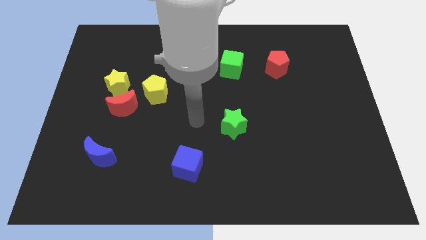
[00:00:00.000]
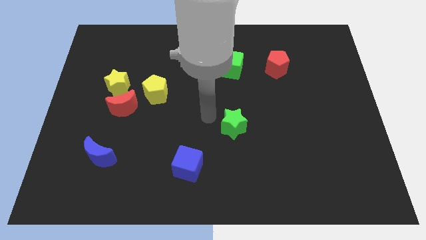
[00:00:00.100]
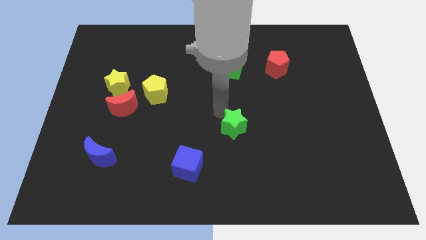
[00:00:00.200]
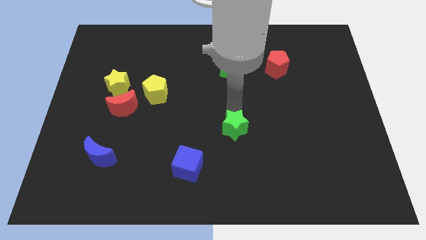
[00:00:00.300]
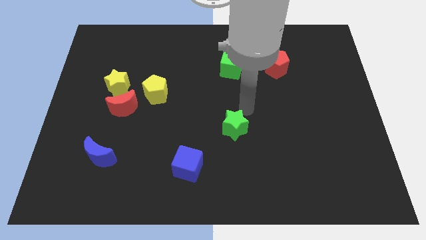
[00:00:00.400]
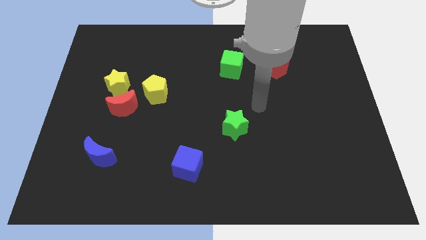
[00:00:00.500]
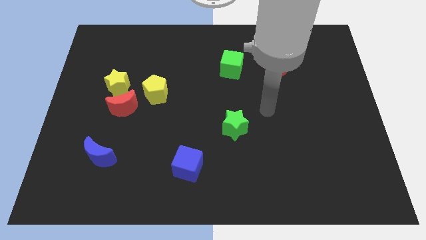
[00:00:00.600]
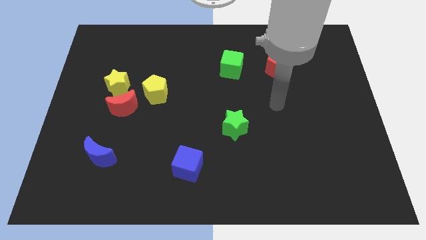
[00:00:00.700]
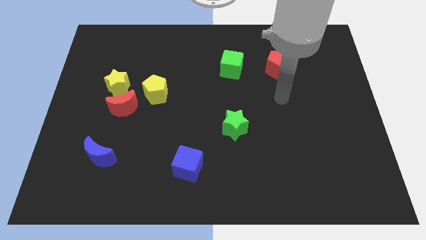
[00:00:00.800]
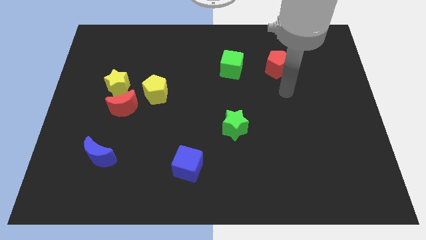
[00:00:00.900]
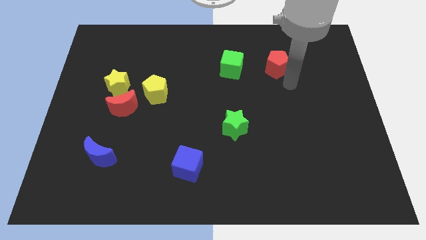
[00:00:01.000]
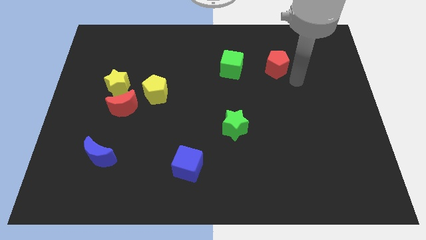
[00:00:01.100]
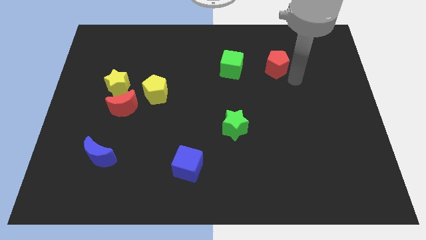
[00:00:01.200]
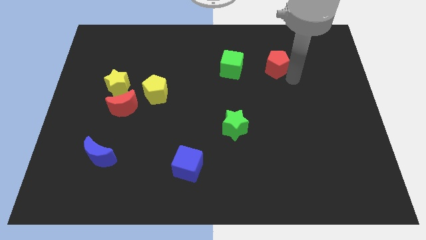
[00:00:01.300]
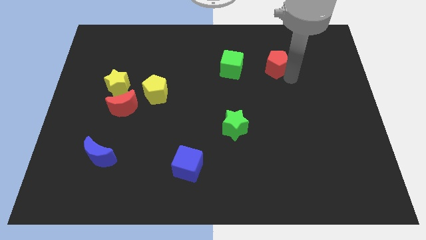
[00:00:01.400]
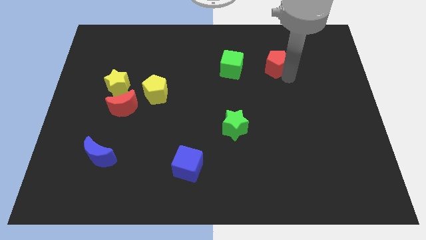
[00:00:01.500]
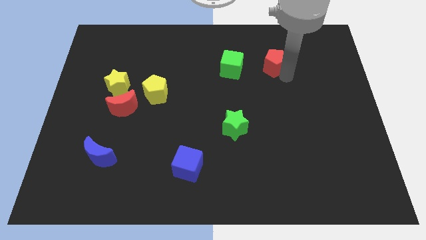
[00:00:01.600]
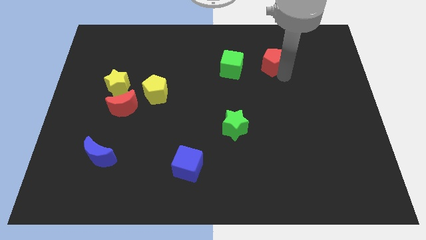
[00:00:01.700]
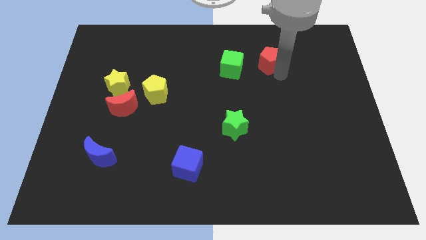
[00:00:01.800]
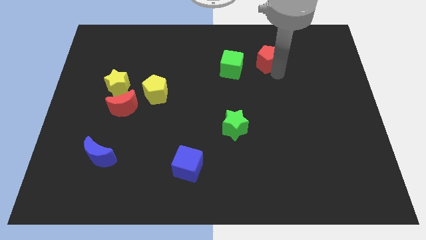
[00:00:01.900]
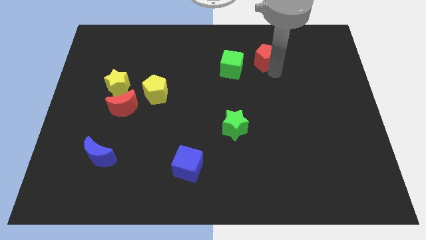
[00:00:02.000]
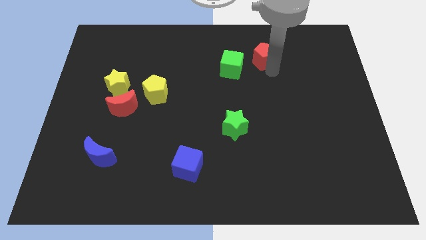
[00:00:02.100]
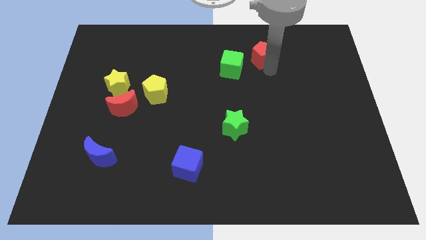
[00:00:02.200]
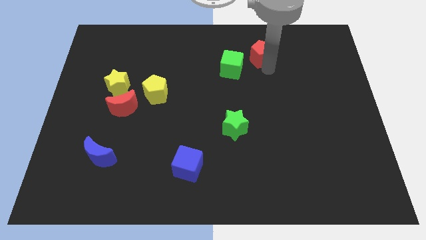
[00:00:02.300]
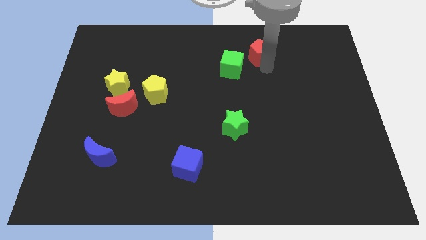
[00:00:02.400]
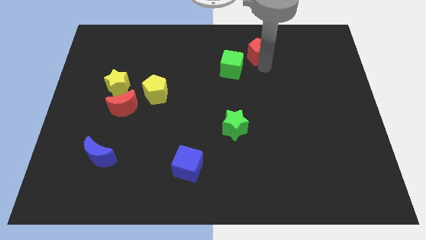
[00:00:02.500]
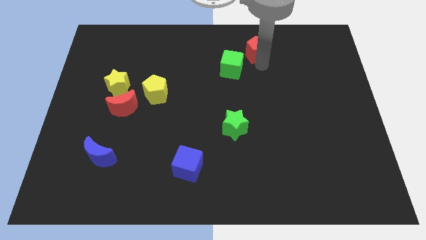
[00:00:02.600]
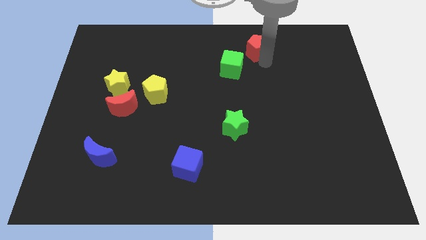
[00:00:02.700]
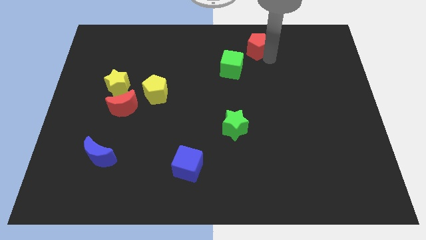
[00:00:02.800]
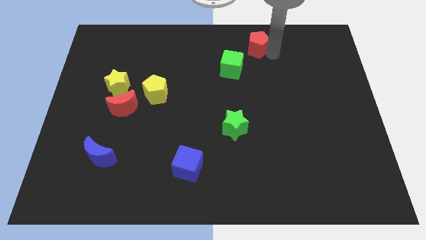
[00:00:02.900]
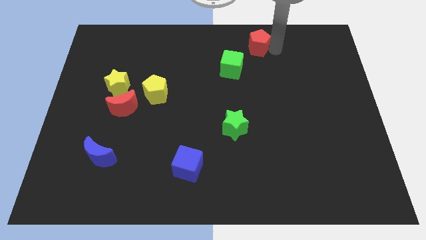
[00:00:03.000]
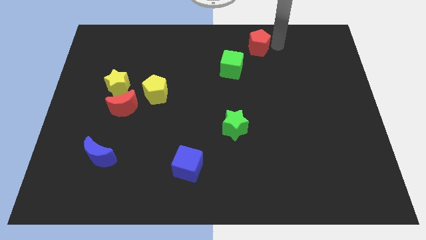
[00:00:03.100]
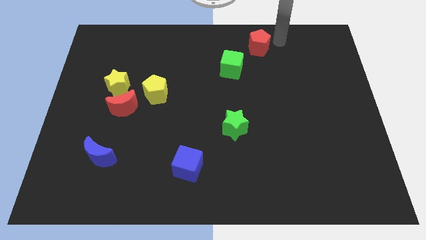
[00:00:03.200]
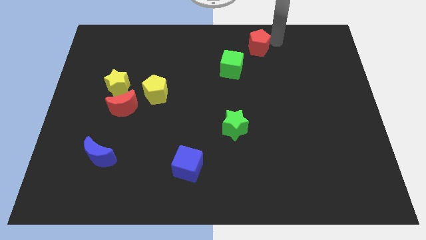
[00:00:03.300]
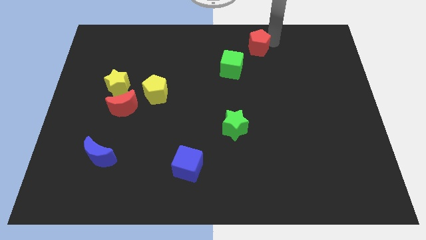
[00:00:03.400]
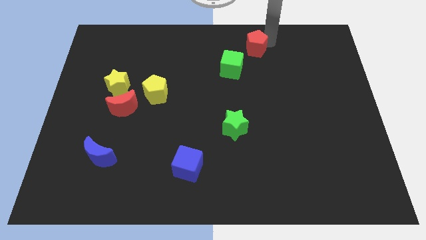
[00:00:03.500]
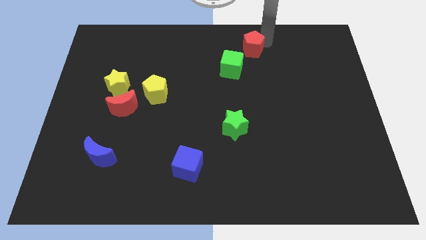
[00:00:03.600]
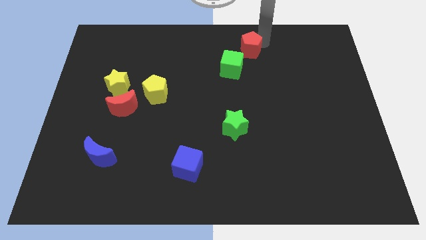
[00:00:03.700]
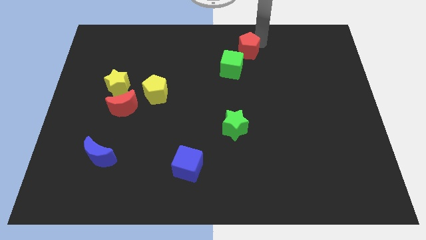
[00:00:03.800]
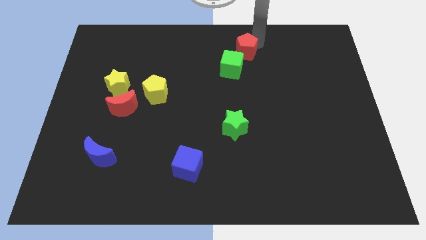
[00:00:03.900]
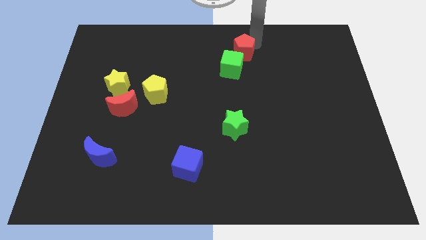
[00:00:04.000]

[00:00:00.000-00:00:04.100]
push the red pentagon a little bit to the left

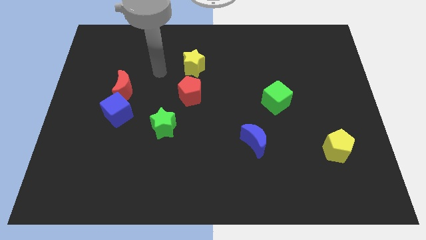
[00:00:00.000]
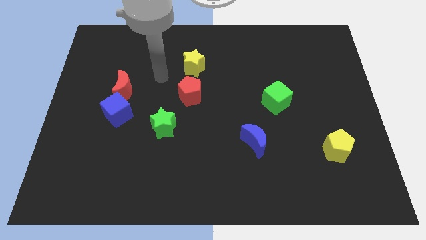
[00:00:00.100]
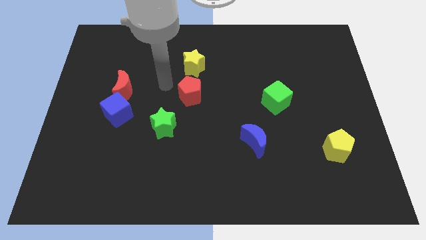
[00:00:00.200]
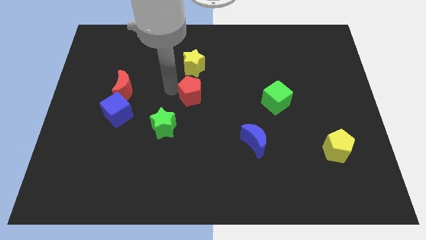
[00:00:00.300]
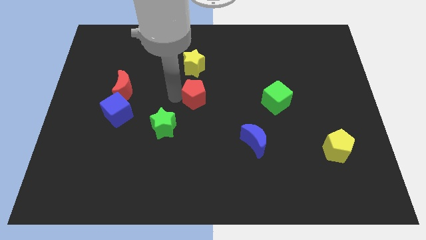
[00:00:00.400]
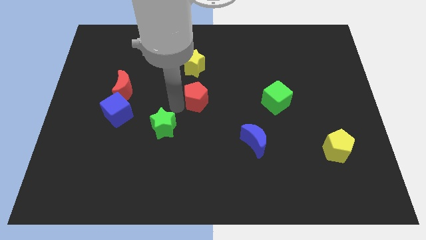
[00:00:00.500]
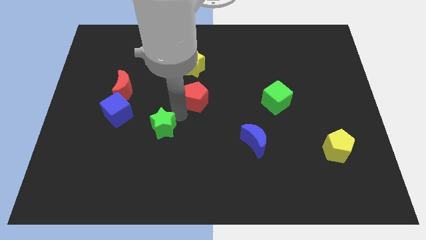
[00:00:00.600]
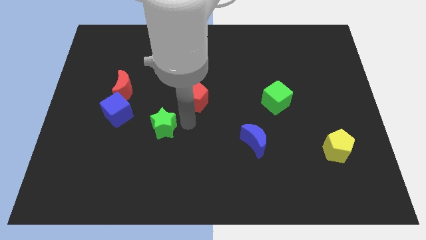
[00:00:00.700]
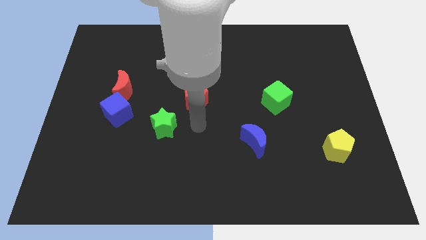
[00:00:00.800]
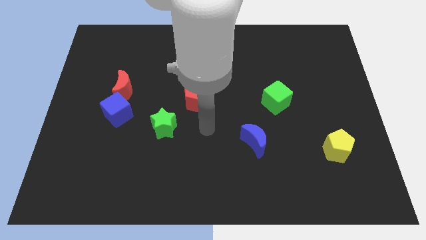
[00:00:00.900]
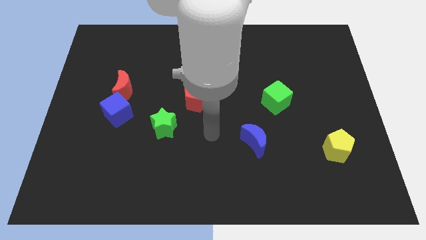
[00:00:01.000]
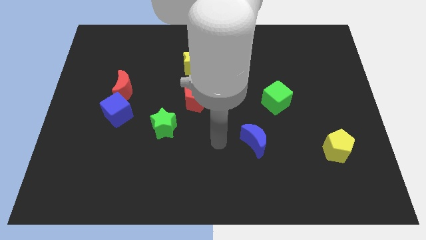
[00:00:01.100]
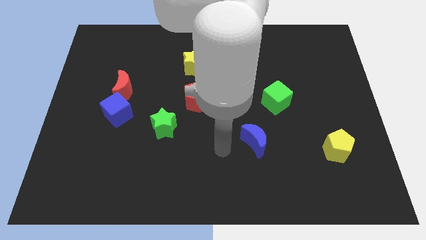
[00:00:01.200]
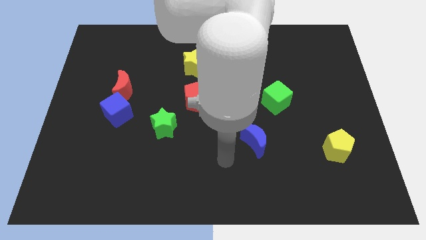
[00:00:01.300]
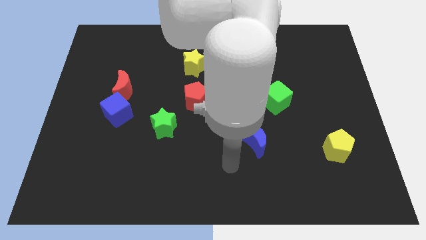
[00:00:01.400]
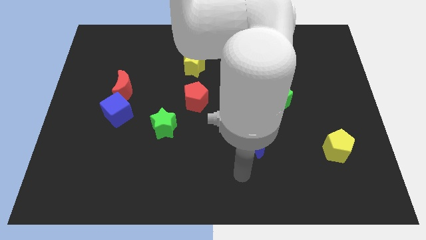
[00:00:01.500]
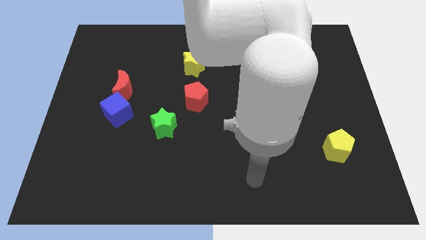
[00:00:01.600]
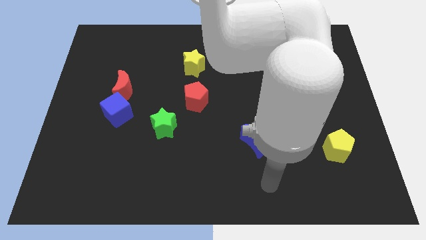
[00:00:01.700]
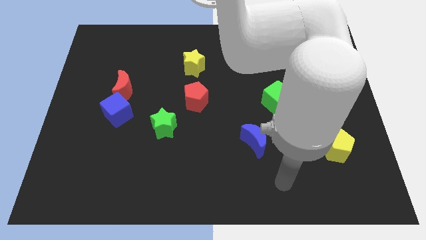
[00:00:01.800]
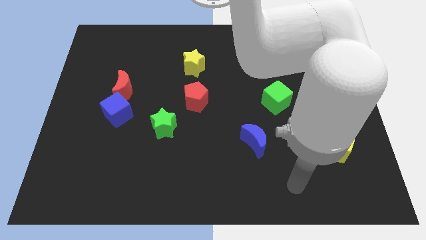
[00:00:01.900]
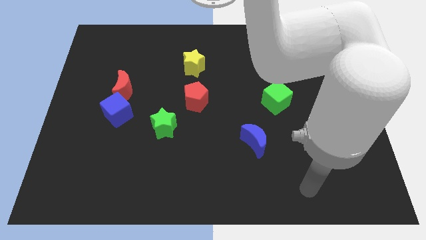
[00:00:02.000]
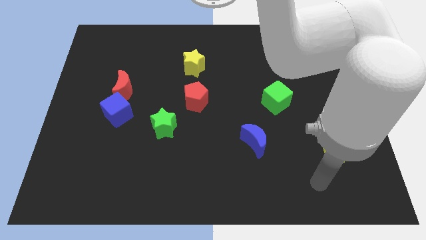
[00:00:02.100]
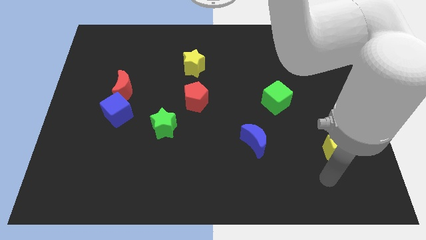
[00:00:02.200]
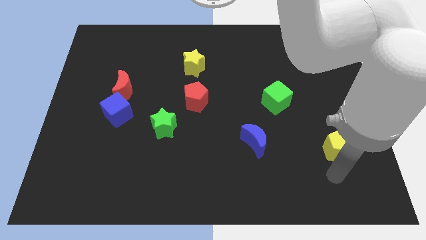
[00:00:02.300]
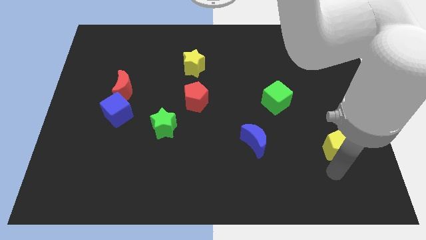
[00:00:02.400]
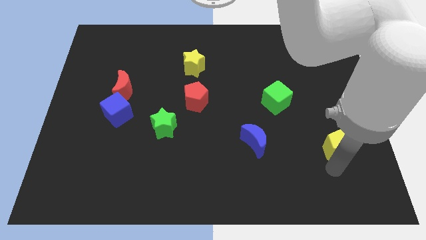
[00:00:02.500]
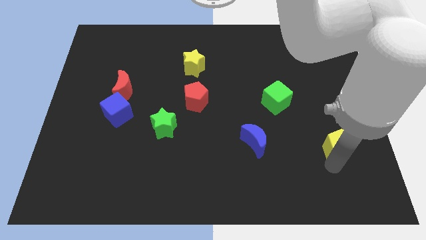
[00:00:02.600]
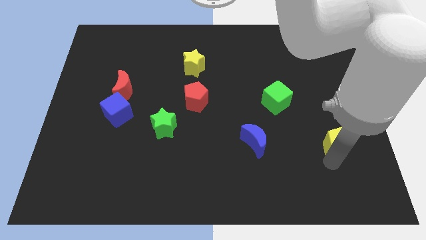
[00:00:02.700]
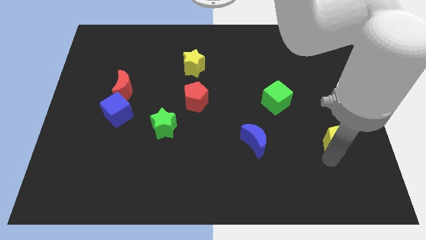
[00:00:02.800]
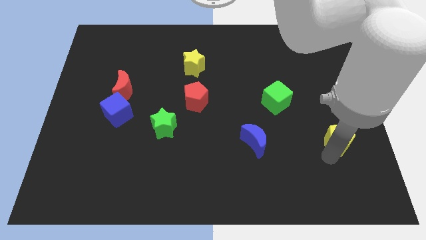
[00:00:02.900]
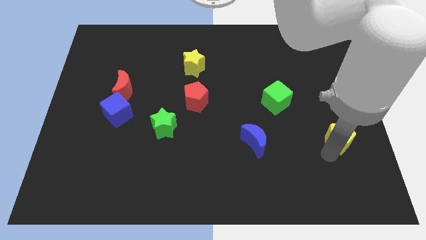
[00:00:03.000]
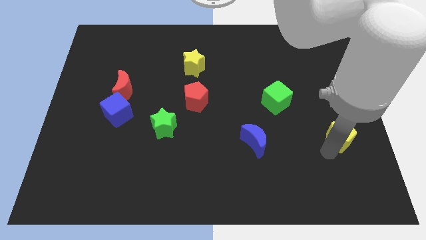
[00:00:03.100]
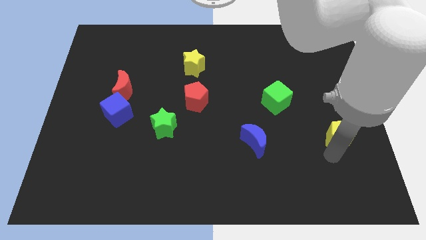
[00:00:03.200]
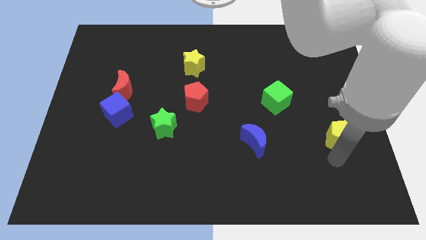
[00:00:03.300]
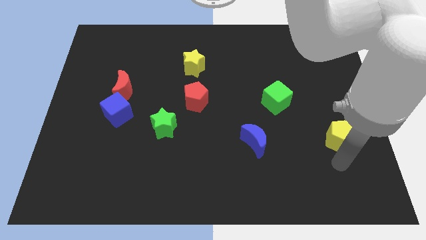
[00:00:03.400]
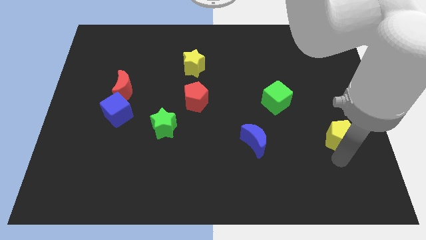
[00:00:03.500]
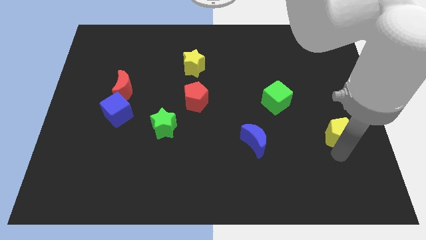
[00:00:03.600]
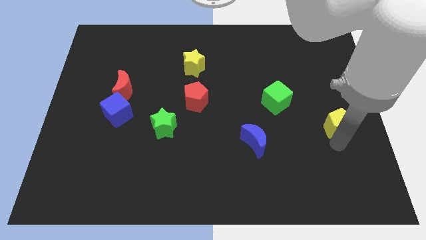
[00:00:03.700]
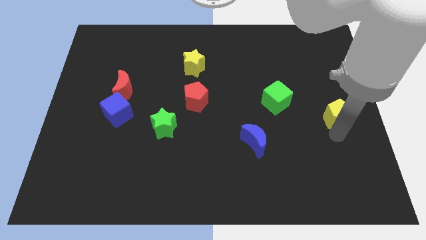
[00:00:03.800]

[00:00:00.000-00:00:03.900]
move the yellow pentagon upwards a little bit
